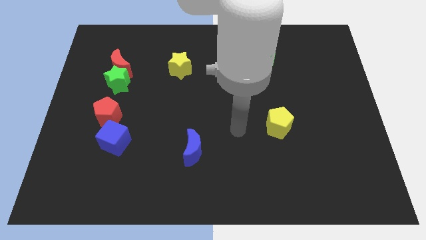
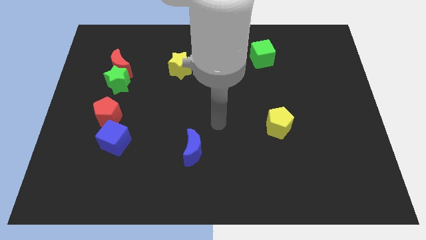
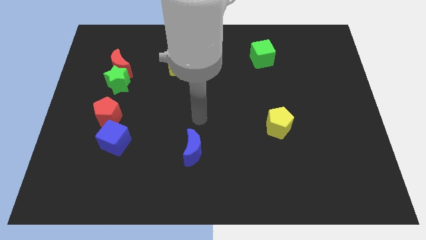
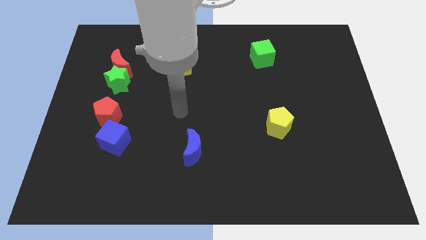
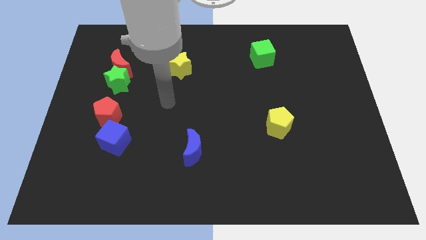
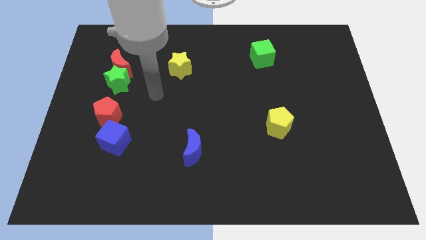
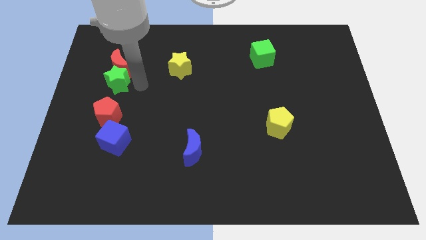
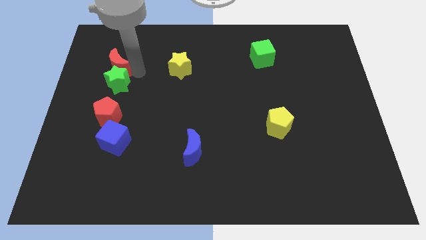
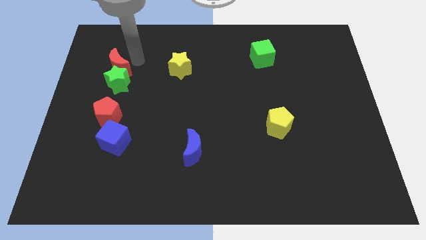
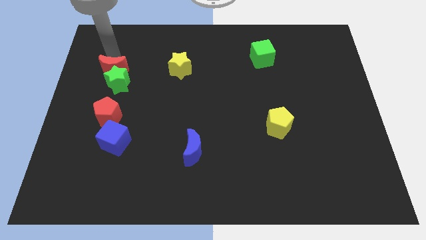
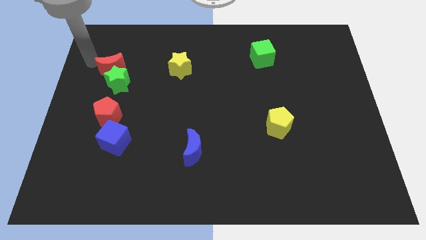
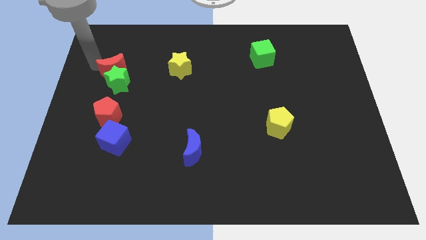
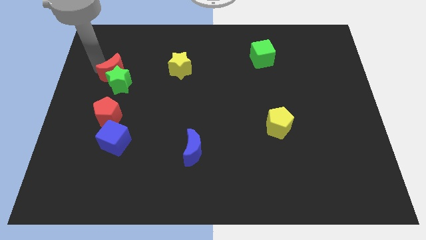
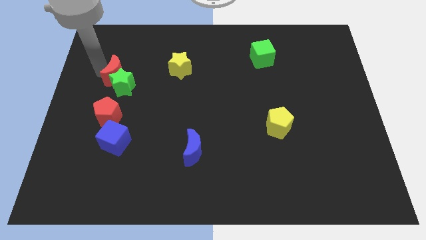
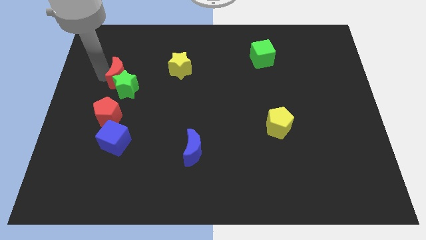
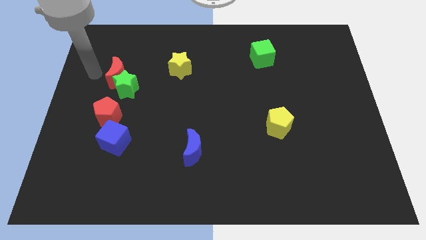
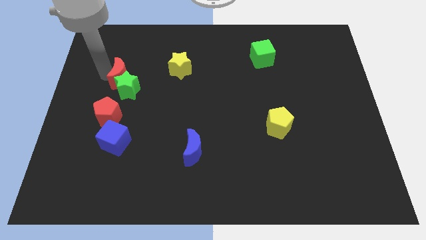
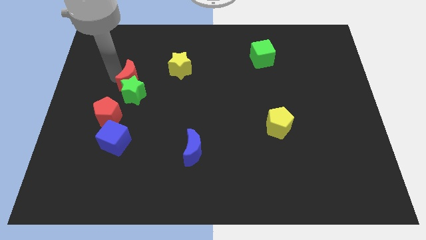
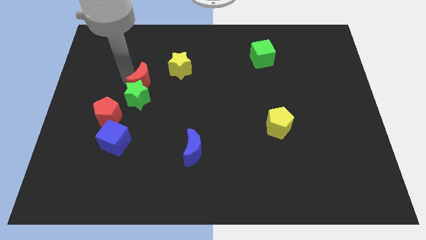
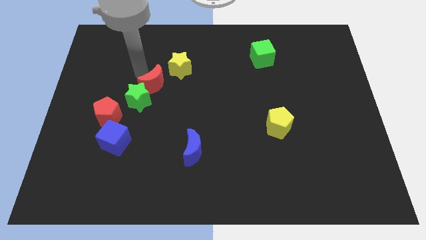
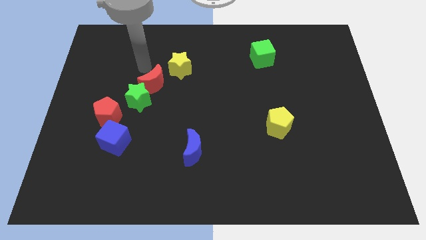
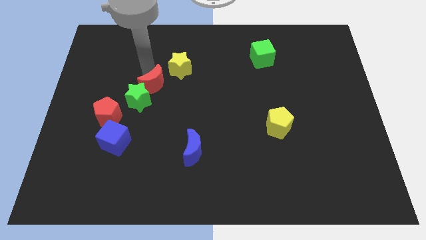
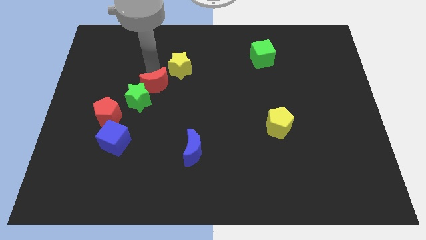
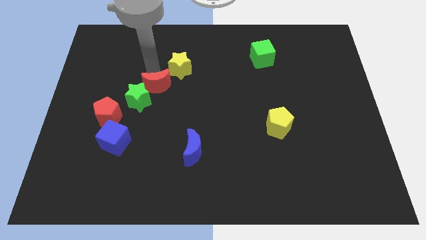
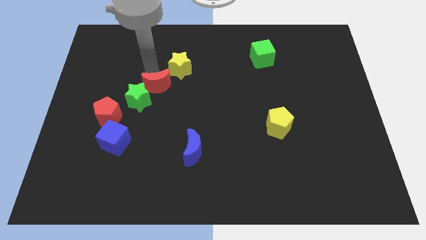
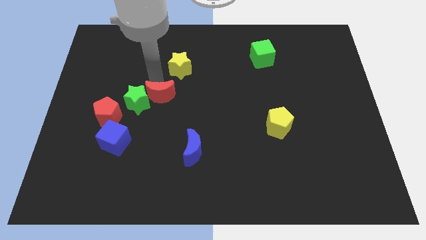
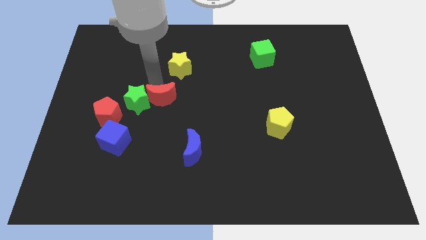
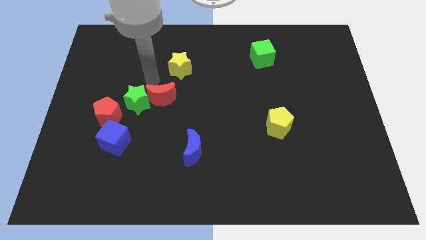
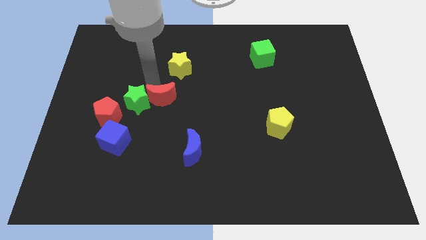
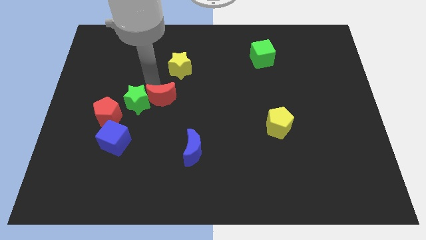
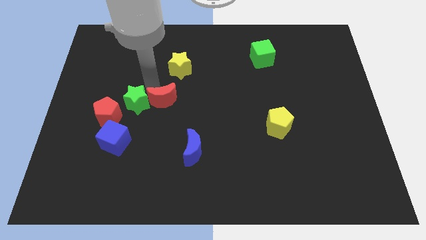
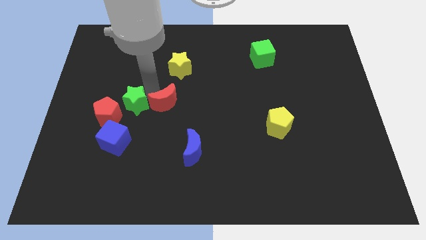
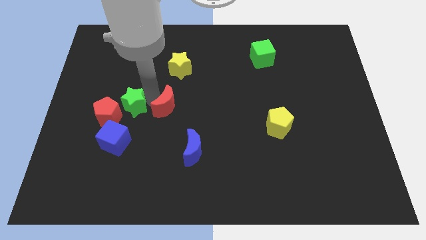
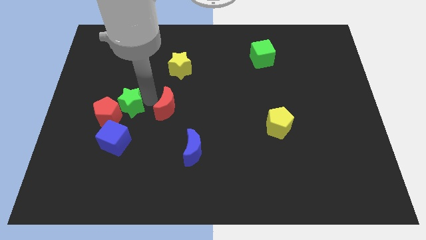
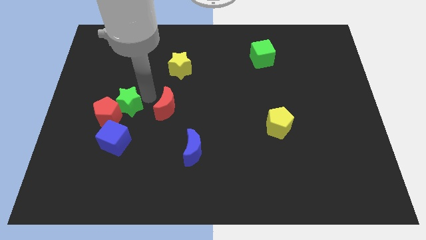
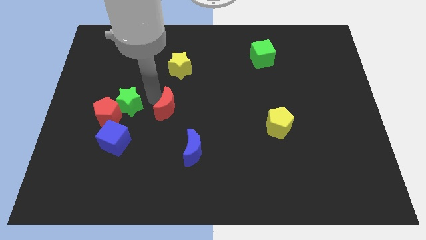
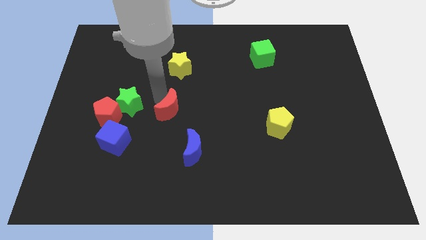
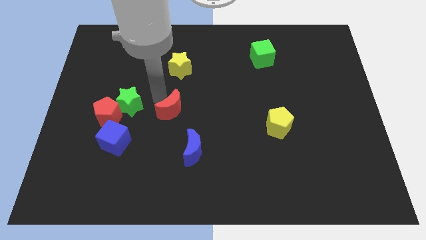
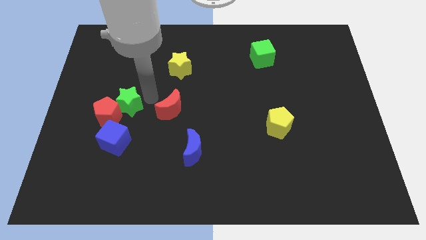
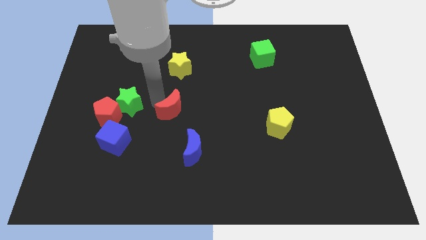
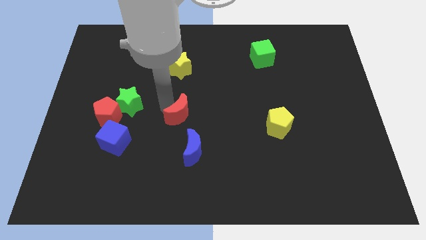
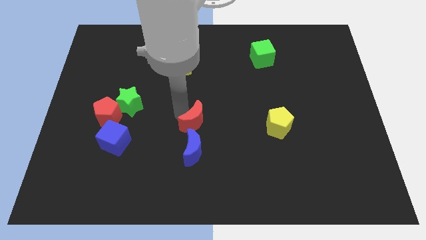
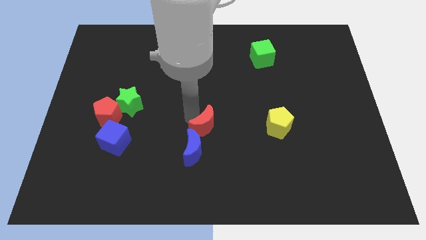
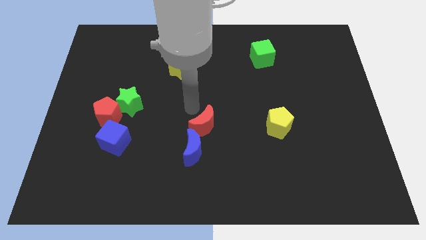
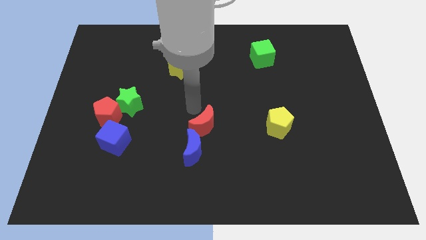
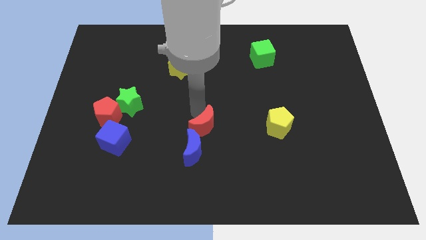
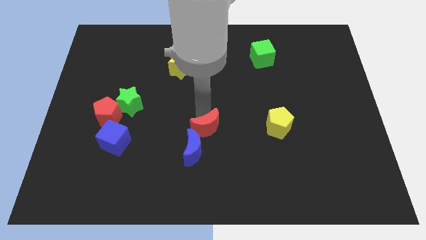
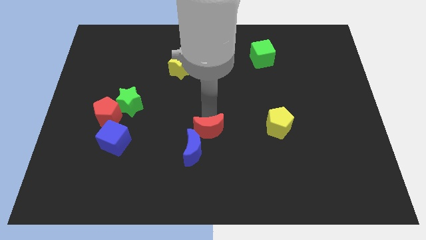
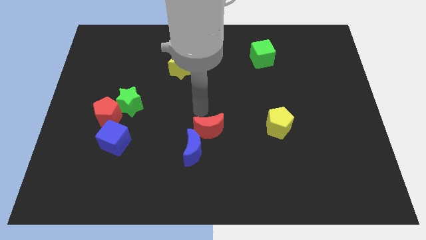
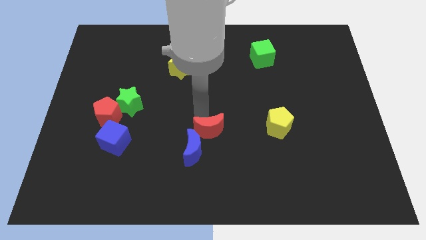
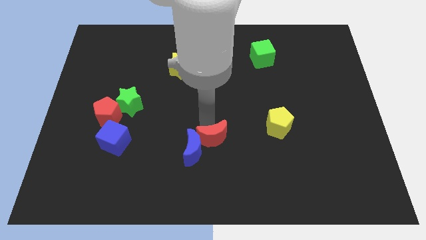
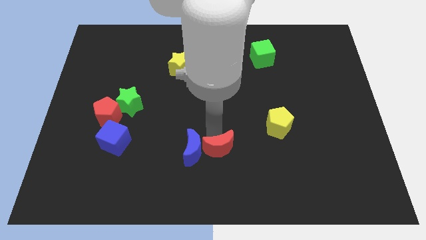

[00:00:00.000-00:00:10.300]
move the red moon to the bottom right side of the blue moon

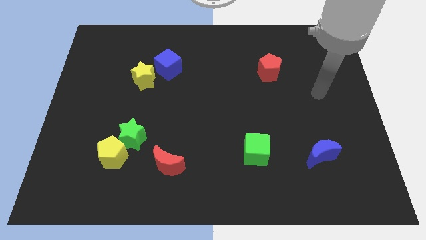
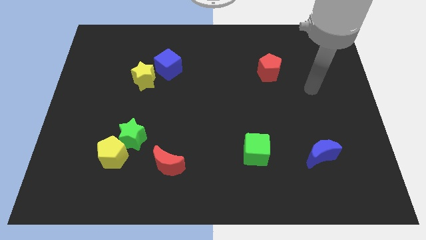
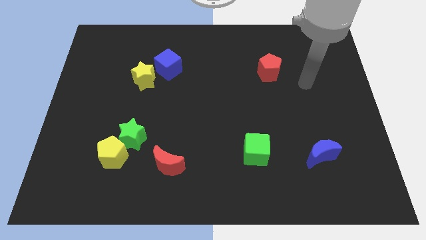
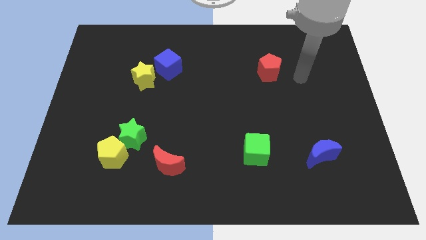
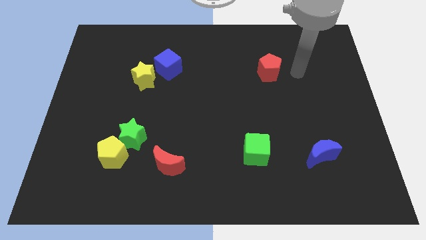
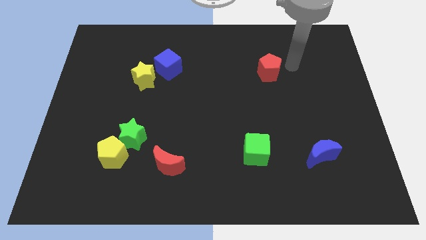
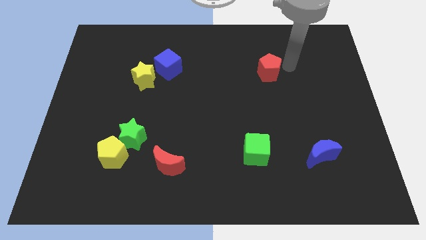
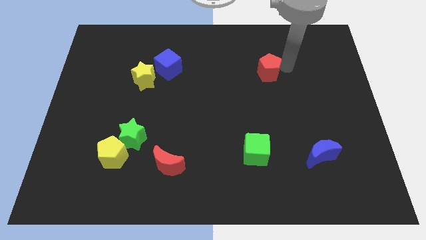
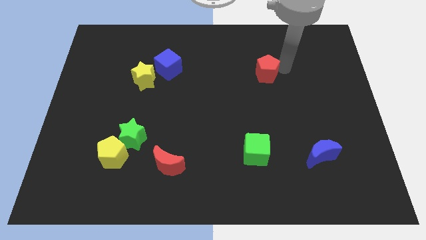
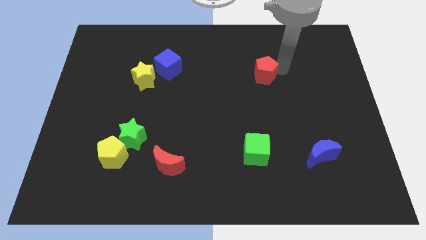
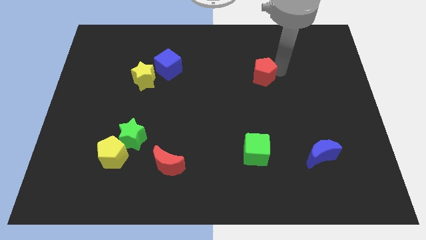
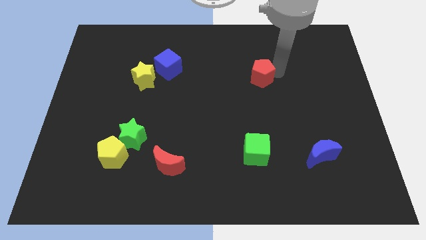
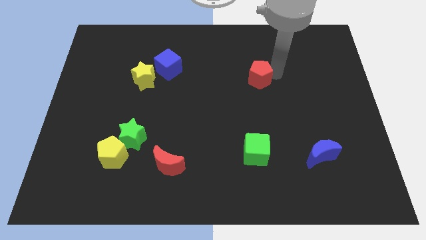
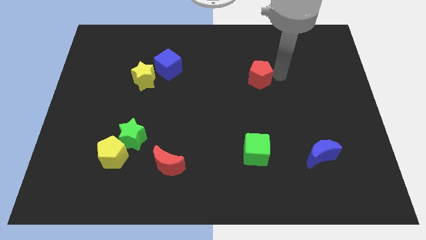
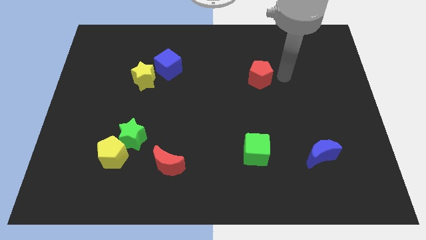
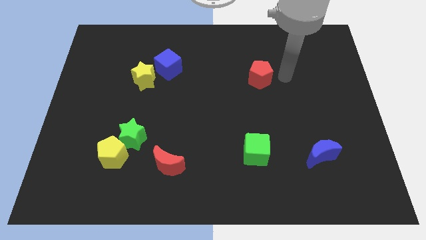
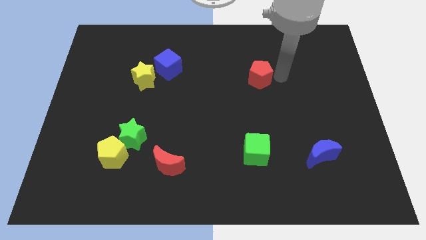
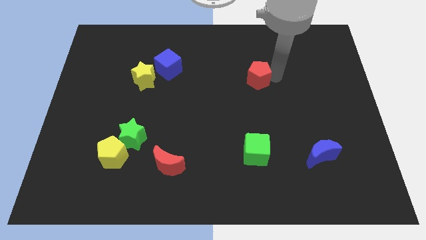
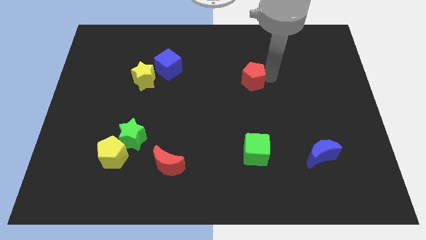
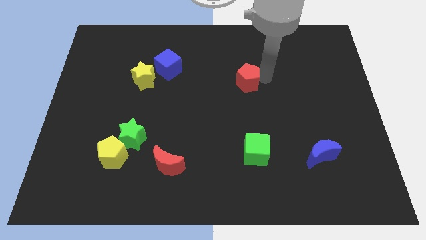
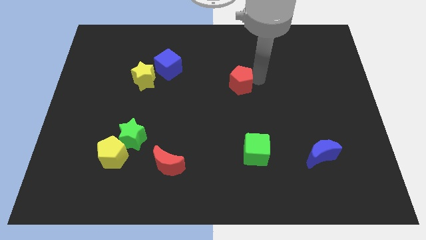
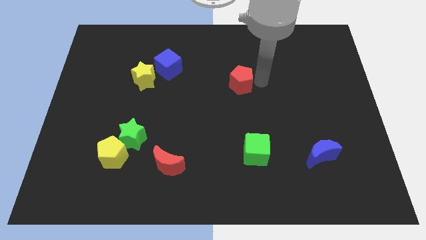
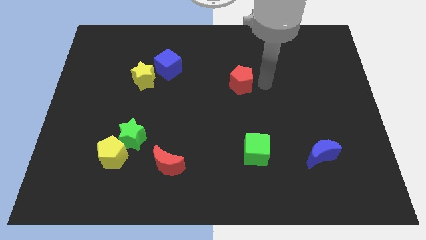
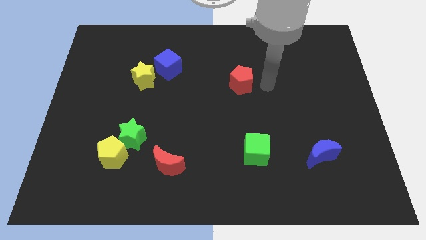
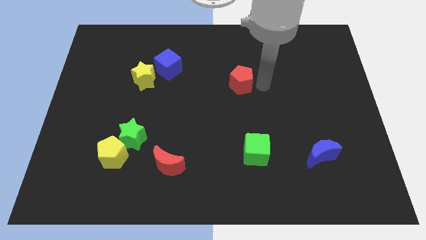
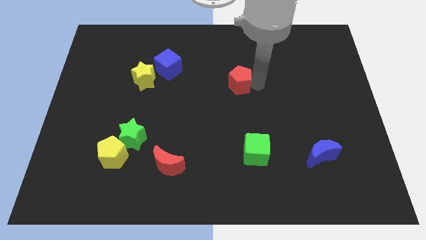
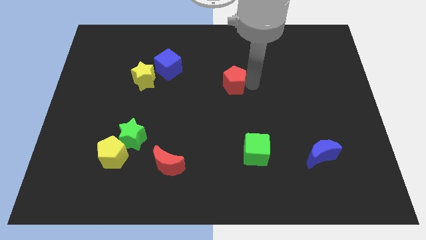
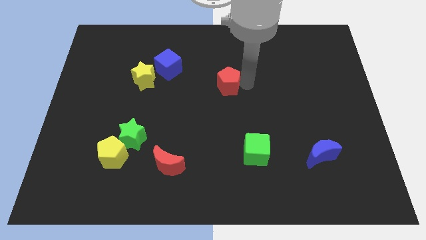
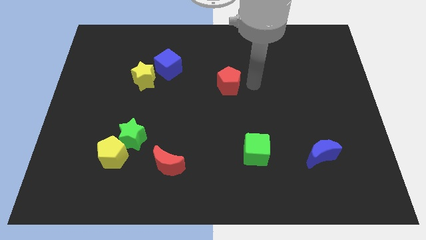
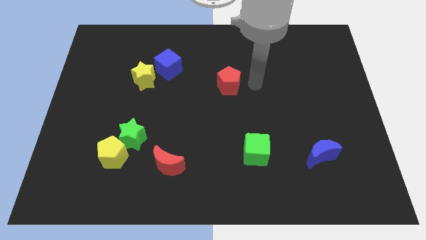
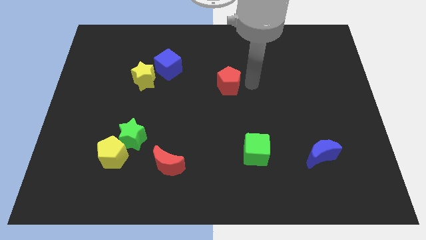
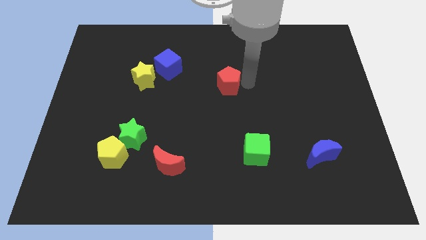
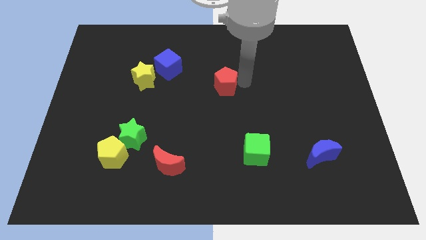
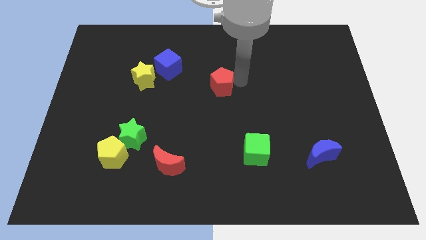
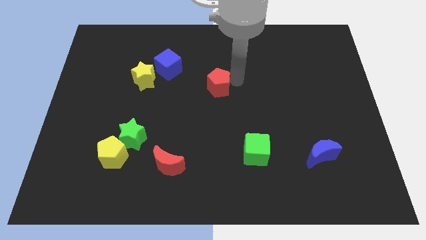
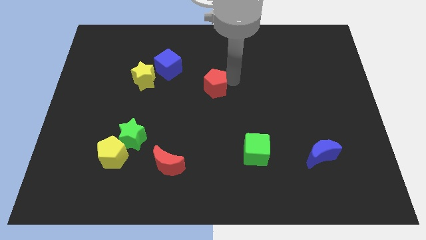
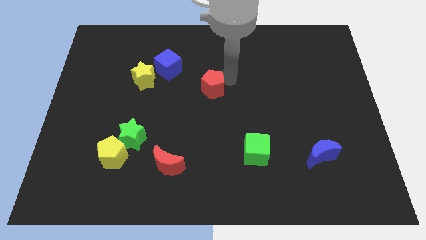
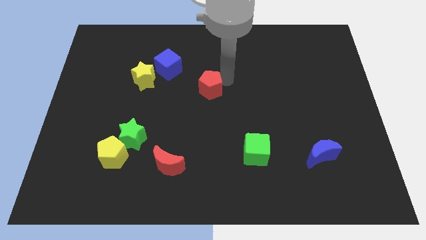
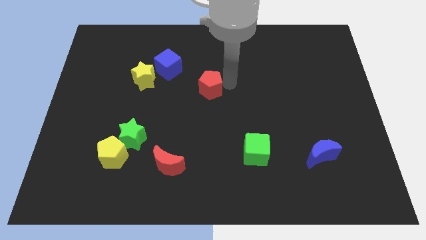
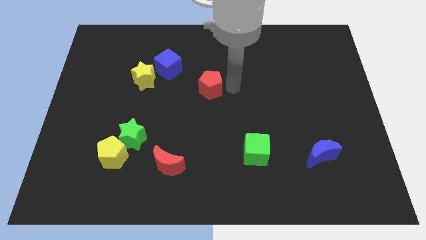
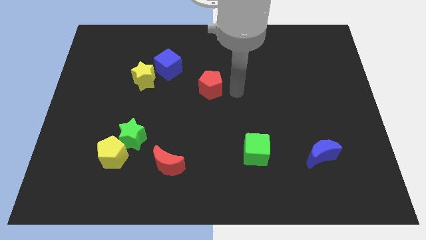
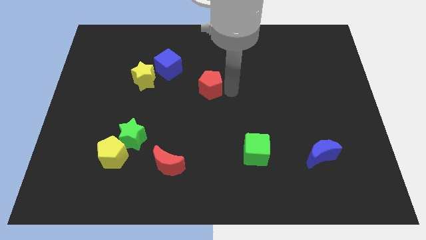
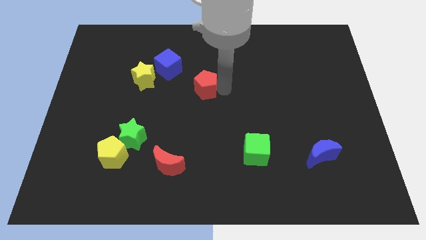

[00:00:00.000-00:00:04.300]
push the red pentagon to the bottom right of the blue cube
